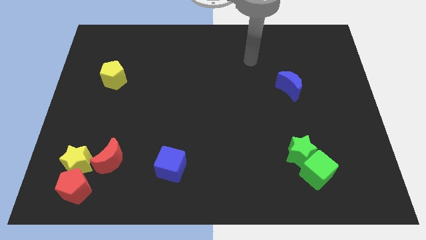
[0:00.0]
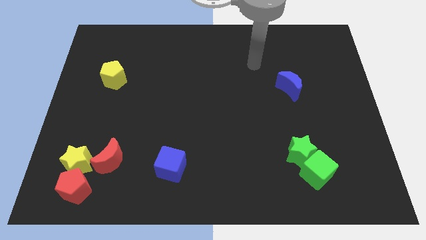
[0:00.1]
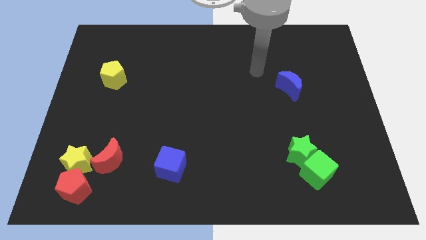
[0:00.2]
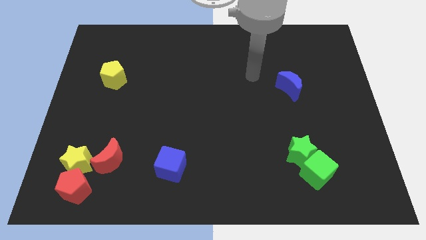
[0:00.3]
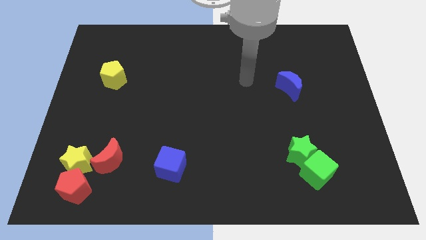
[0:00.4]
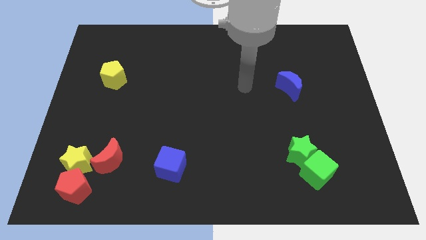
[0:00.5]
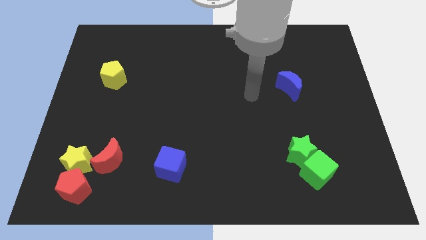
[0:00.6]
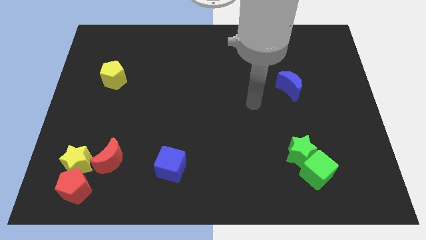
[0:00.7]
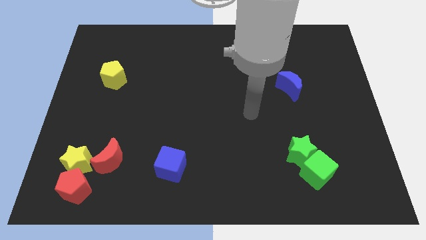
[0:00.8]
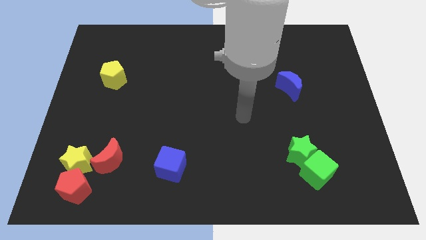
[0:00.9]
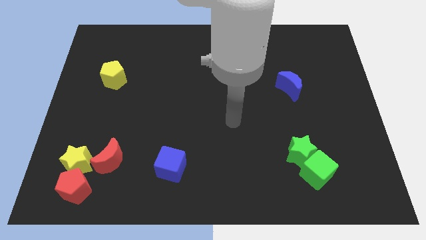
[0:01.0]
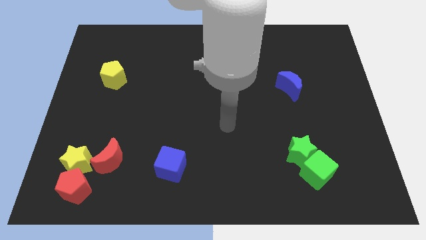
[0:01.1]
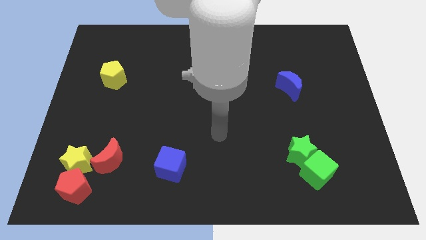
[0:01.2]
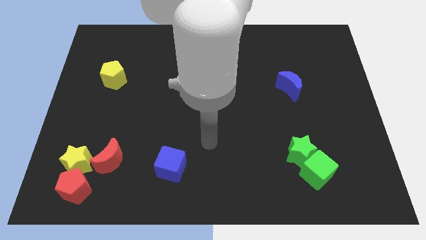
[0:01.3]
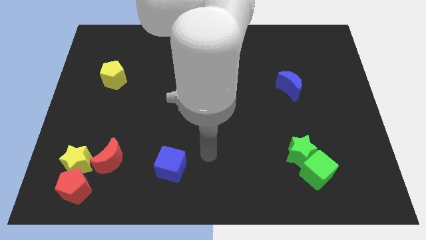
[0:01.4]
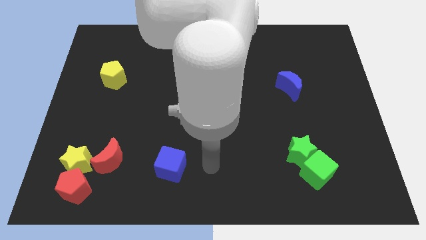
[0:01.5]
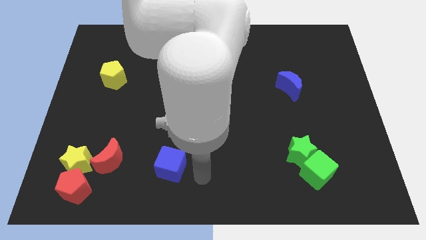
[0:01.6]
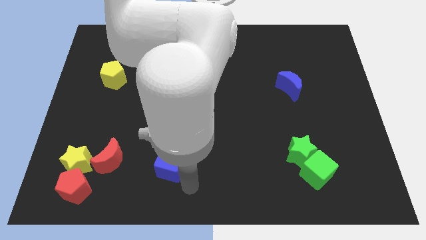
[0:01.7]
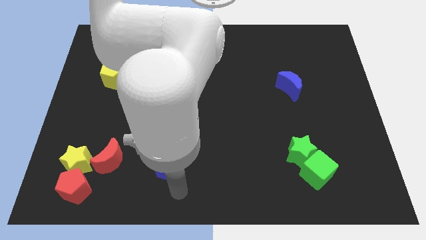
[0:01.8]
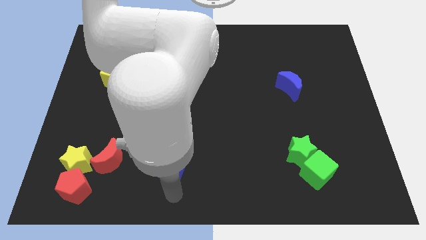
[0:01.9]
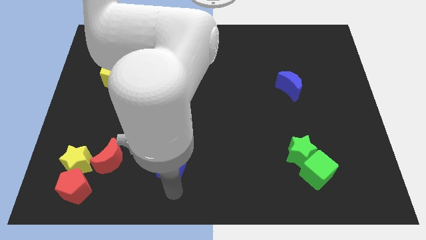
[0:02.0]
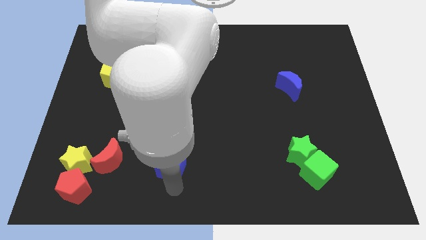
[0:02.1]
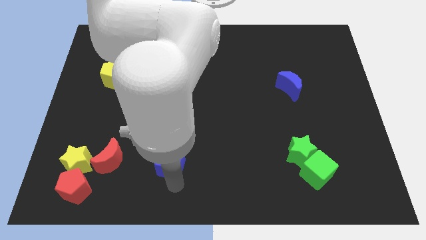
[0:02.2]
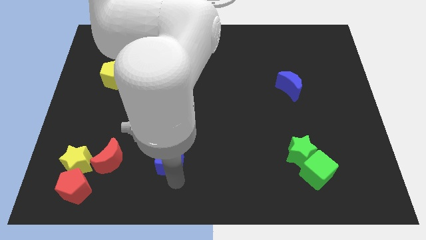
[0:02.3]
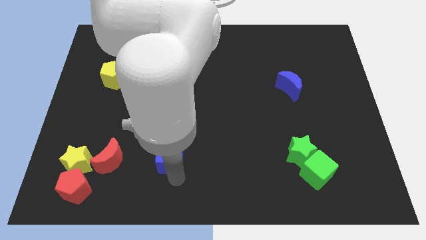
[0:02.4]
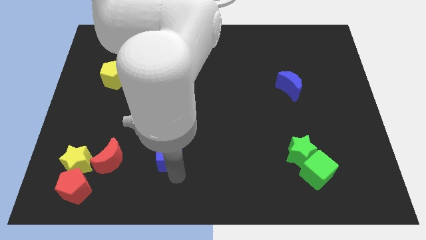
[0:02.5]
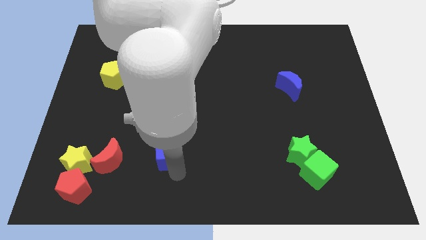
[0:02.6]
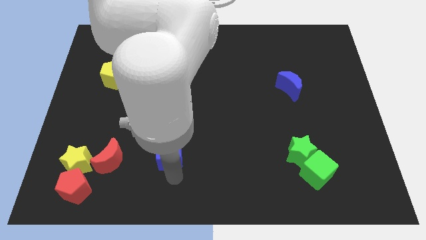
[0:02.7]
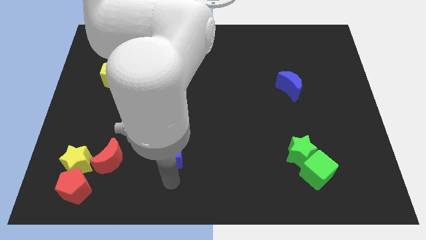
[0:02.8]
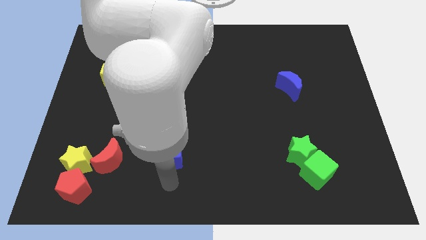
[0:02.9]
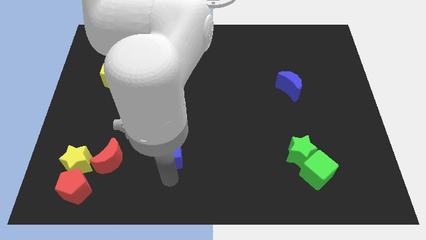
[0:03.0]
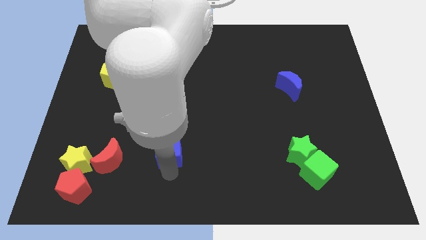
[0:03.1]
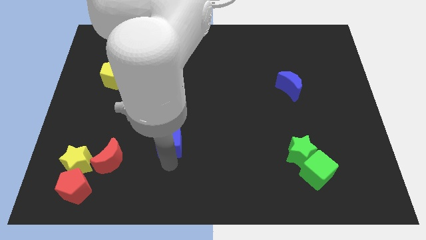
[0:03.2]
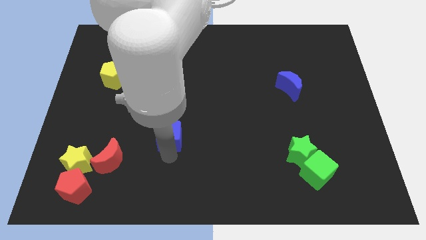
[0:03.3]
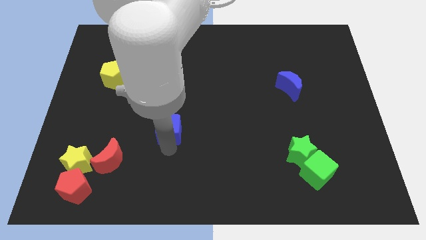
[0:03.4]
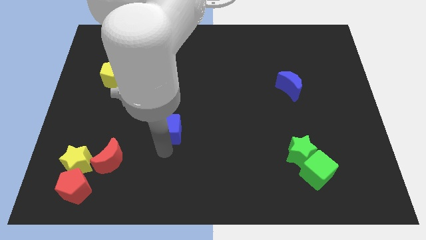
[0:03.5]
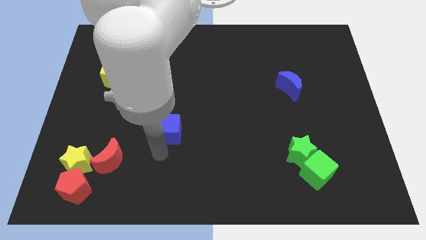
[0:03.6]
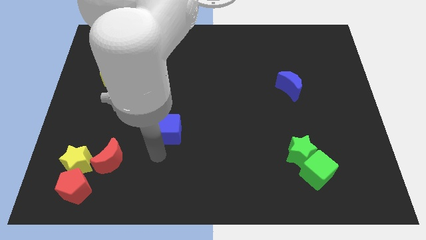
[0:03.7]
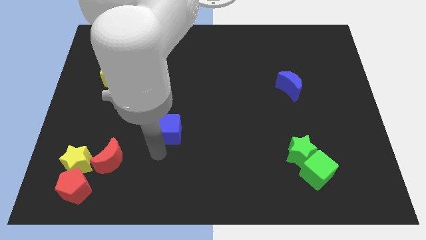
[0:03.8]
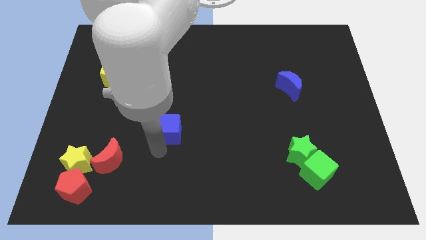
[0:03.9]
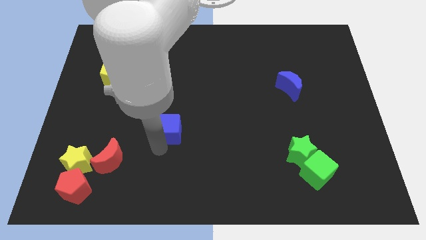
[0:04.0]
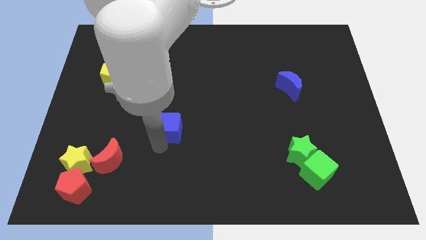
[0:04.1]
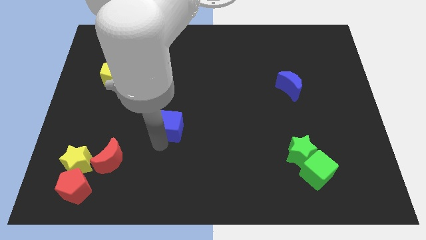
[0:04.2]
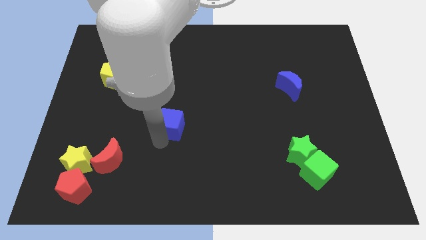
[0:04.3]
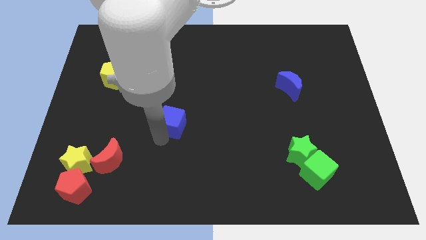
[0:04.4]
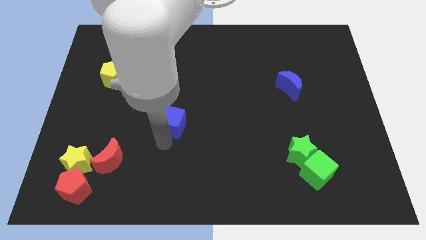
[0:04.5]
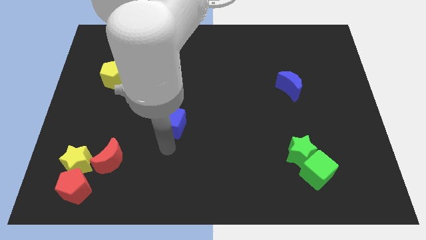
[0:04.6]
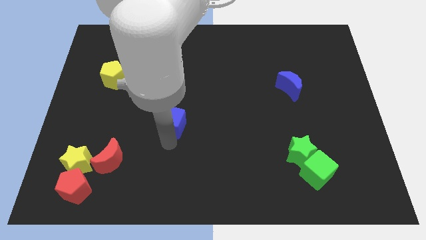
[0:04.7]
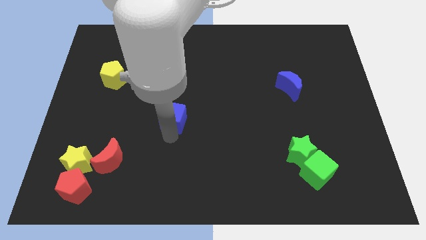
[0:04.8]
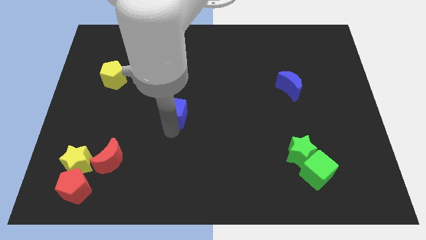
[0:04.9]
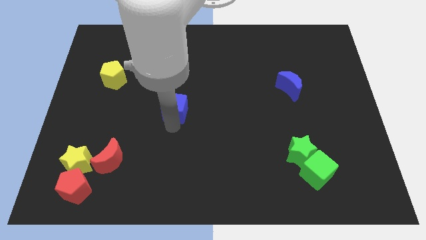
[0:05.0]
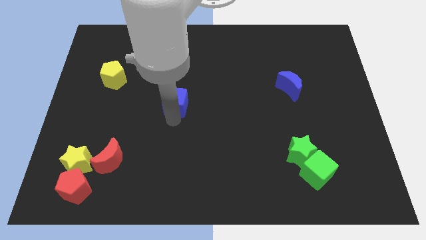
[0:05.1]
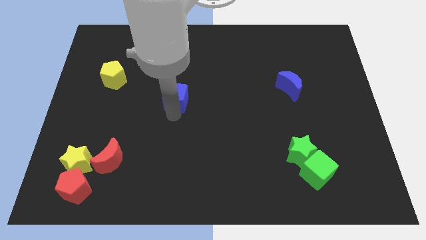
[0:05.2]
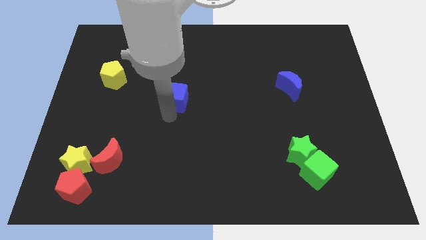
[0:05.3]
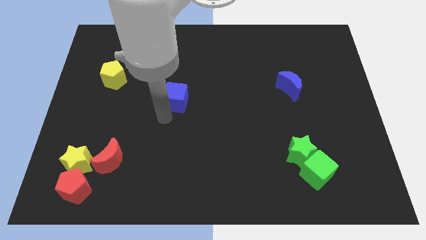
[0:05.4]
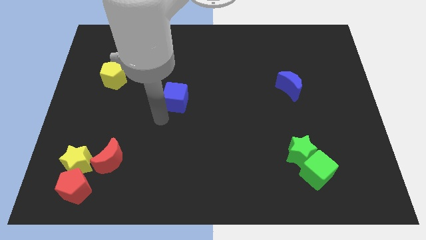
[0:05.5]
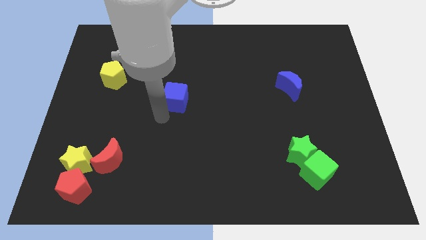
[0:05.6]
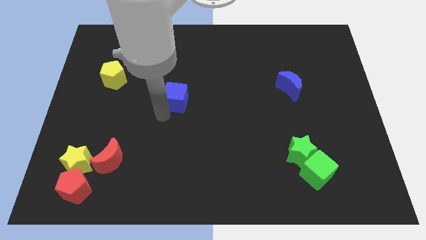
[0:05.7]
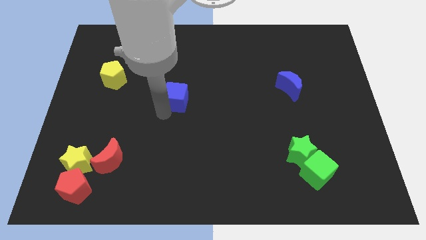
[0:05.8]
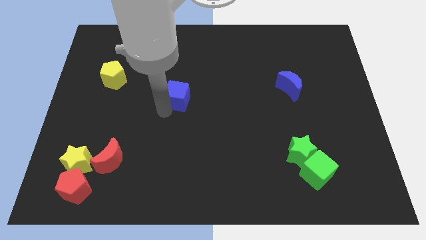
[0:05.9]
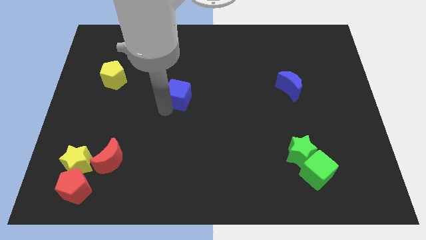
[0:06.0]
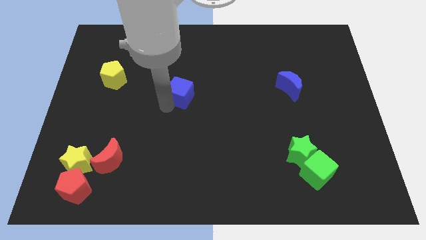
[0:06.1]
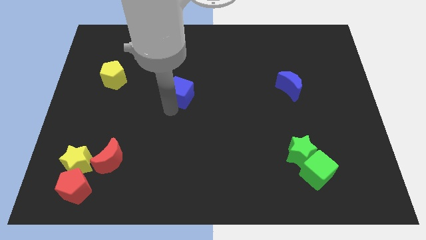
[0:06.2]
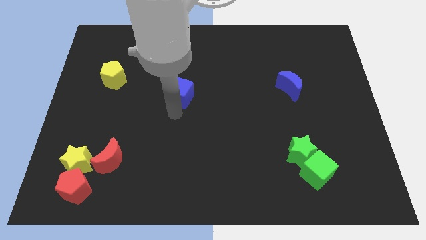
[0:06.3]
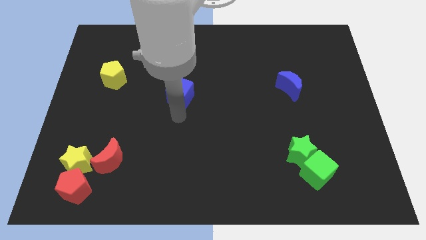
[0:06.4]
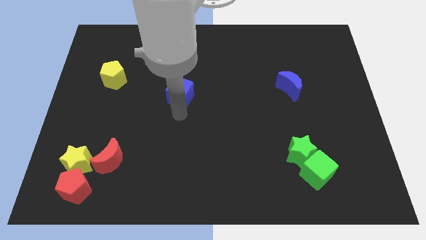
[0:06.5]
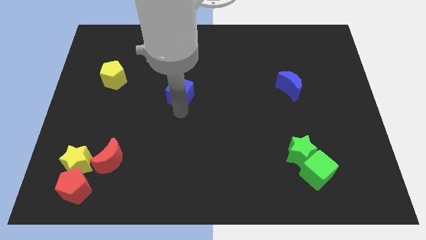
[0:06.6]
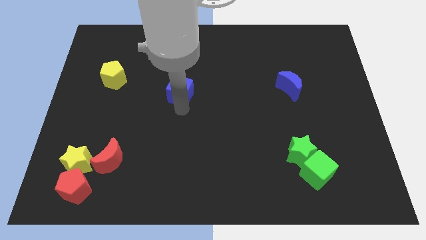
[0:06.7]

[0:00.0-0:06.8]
slide the blue cube up

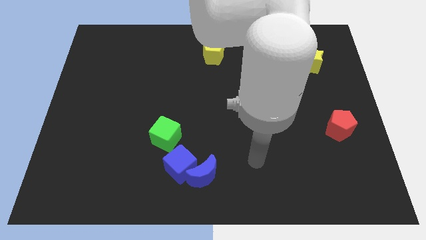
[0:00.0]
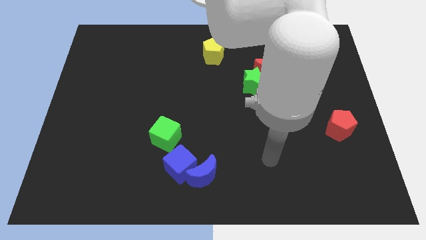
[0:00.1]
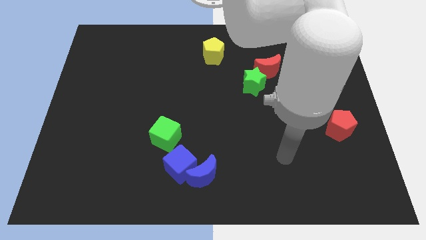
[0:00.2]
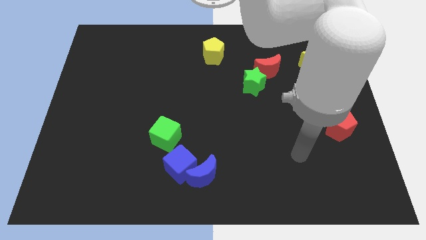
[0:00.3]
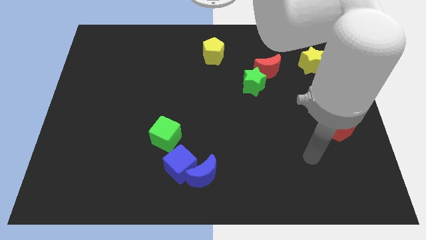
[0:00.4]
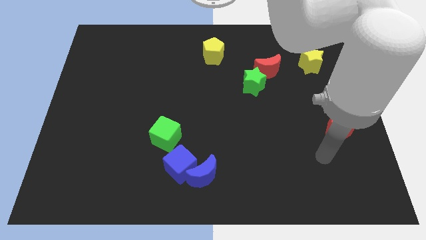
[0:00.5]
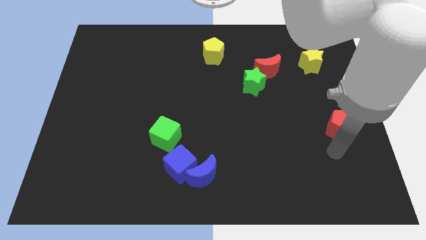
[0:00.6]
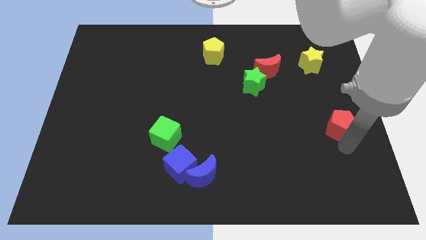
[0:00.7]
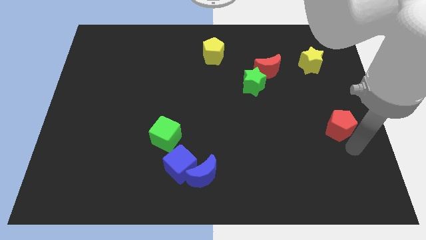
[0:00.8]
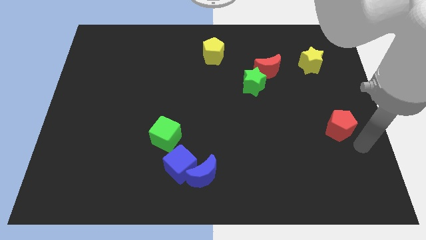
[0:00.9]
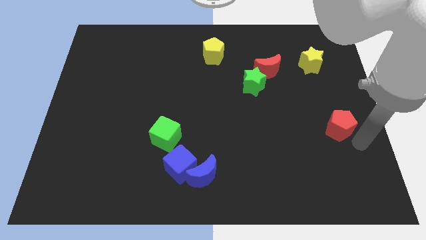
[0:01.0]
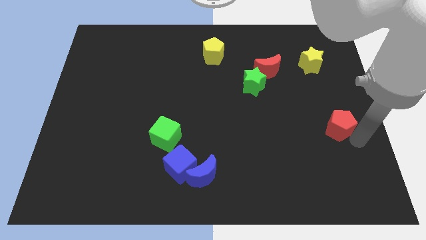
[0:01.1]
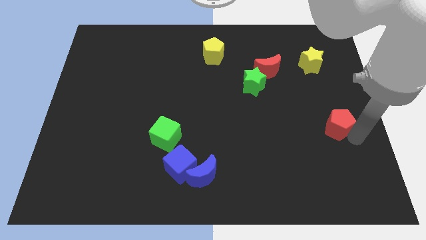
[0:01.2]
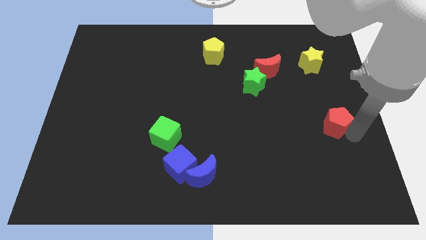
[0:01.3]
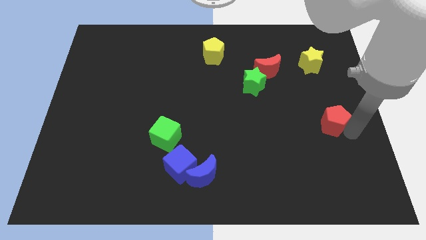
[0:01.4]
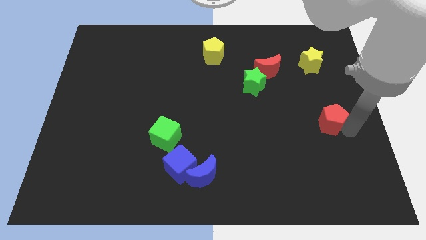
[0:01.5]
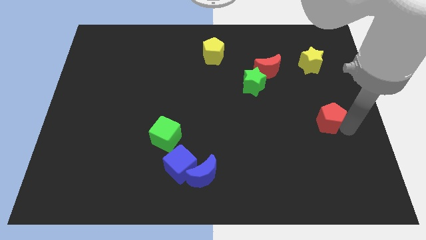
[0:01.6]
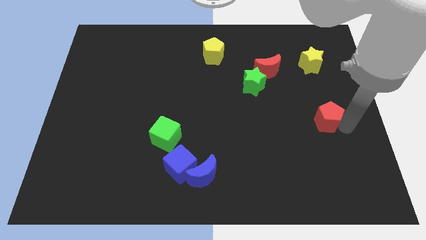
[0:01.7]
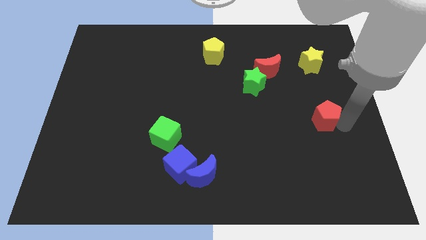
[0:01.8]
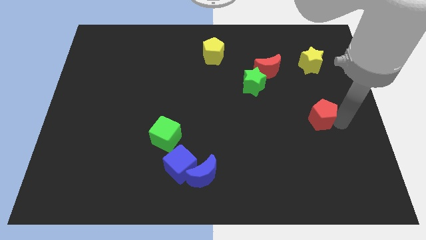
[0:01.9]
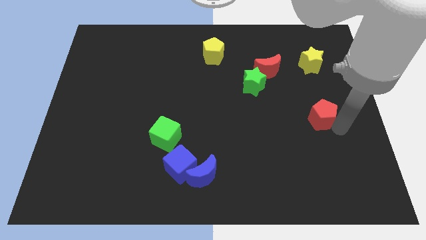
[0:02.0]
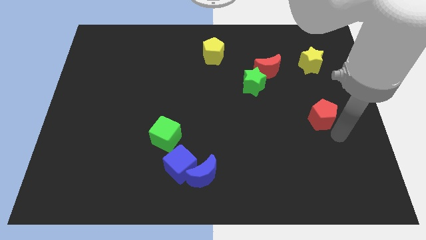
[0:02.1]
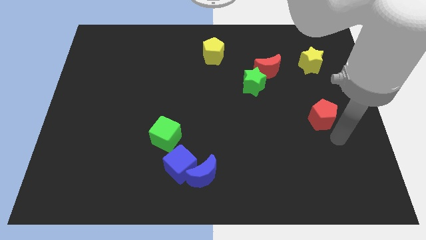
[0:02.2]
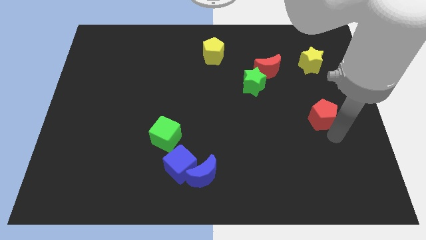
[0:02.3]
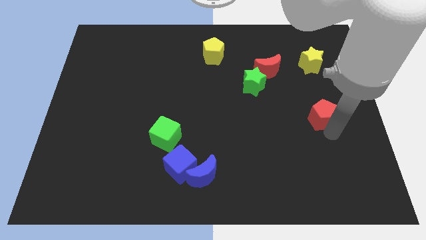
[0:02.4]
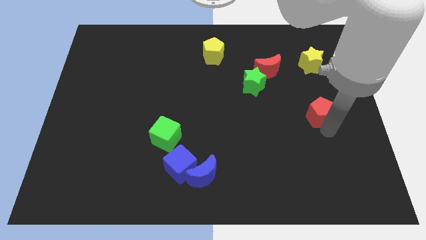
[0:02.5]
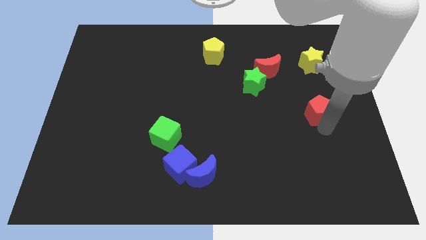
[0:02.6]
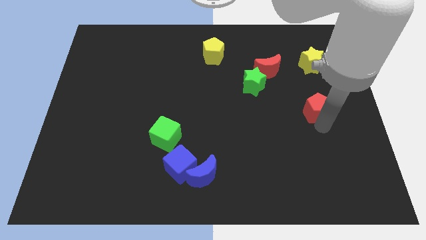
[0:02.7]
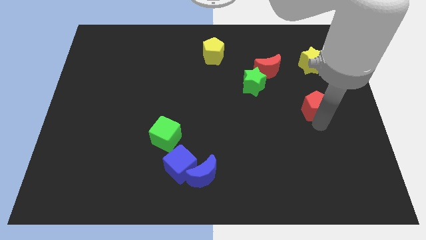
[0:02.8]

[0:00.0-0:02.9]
move the red pentagon a bit upwards and to the left diagonally
